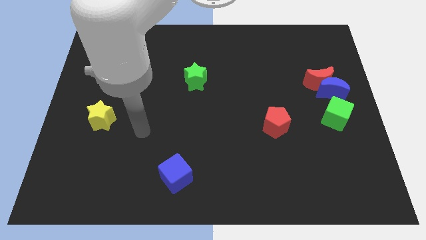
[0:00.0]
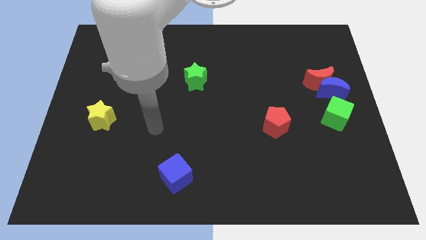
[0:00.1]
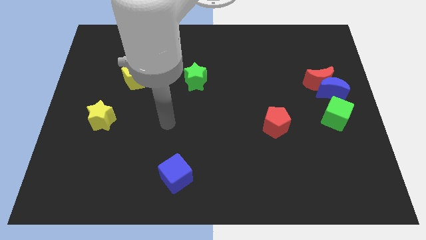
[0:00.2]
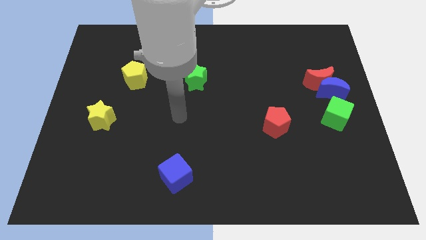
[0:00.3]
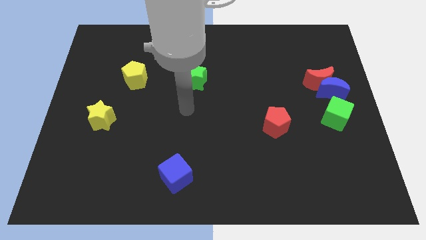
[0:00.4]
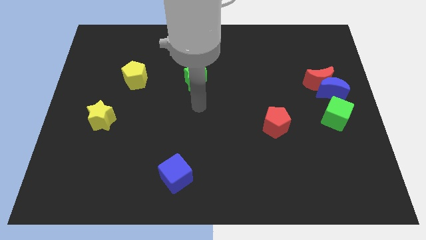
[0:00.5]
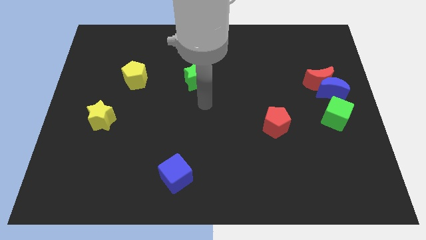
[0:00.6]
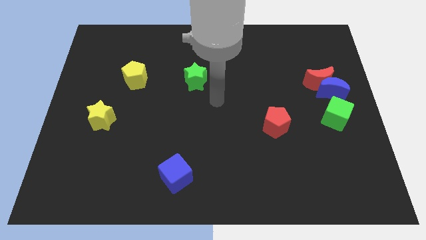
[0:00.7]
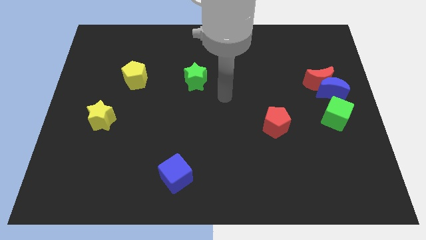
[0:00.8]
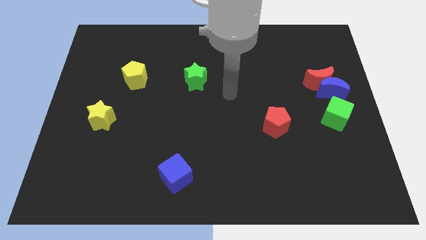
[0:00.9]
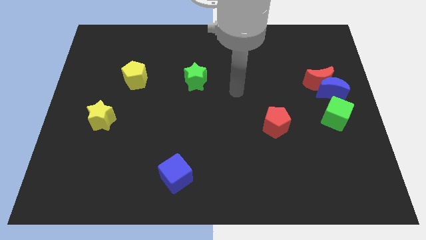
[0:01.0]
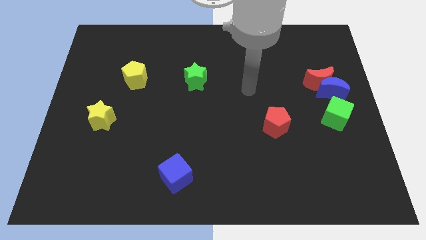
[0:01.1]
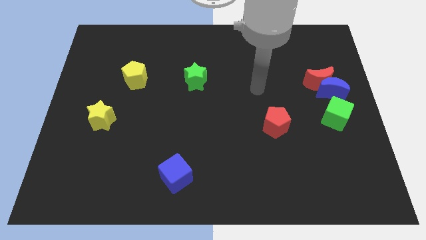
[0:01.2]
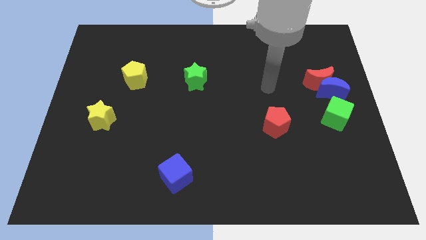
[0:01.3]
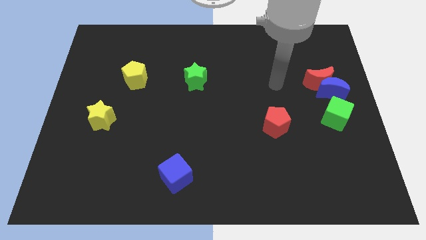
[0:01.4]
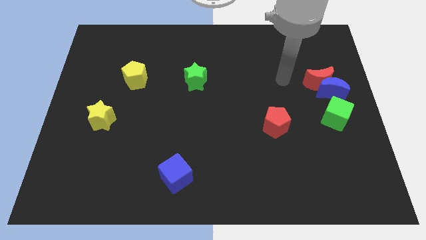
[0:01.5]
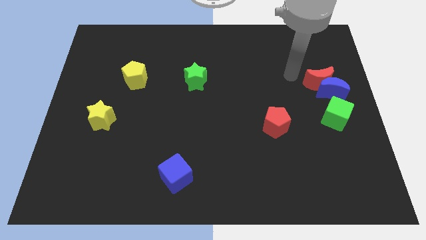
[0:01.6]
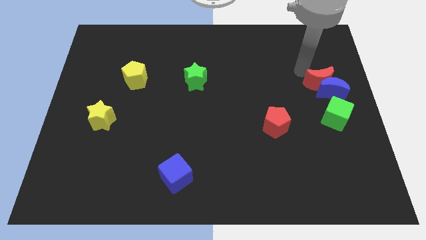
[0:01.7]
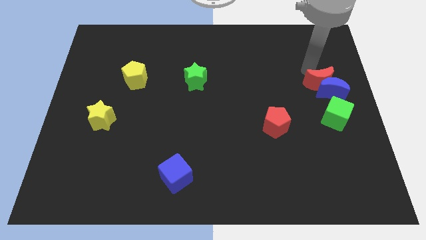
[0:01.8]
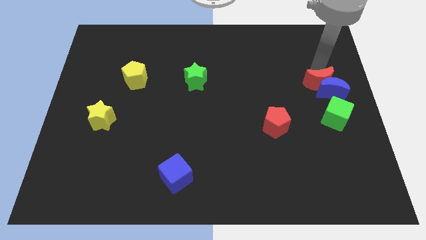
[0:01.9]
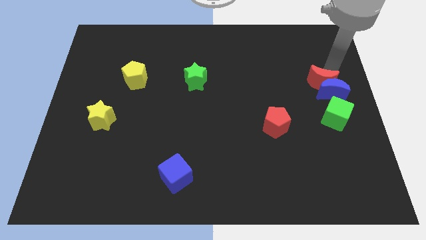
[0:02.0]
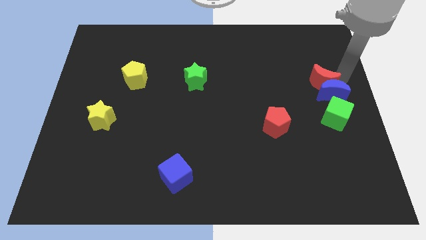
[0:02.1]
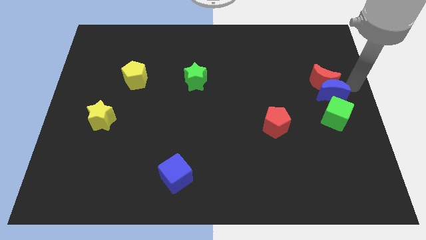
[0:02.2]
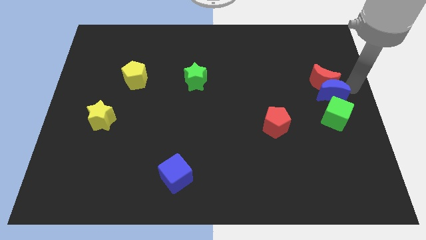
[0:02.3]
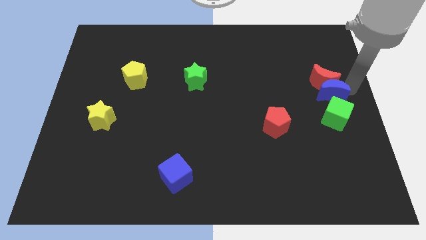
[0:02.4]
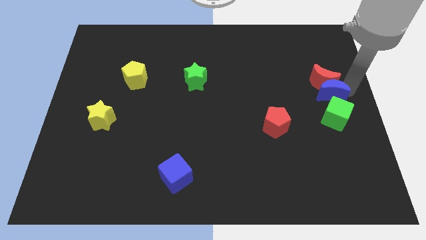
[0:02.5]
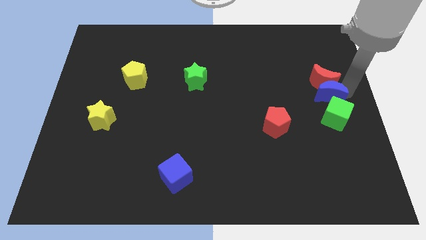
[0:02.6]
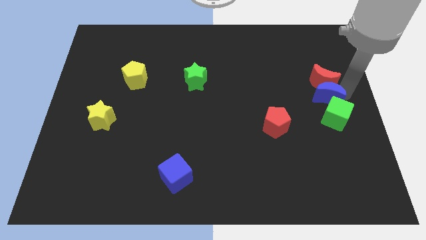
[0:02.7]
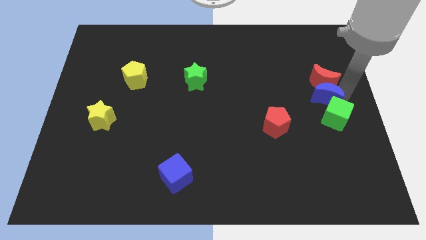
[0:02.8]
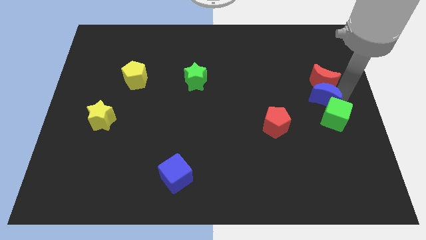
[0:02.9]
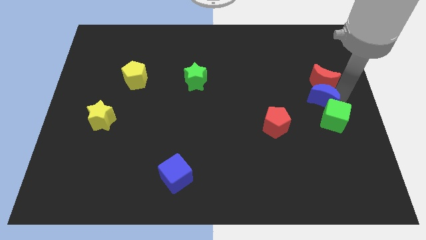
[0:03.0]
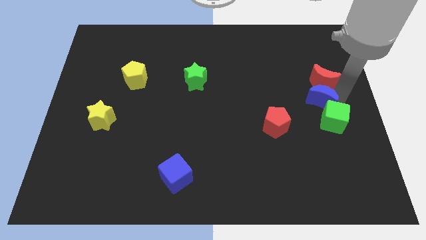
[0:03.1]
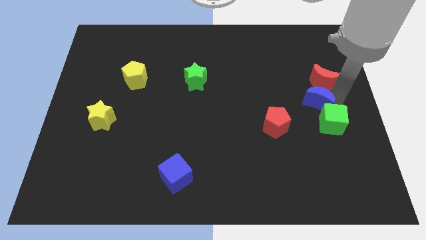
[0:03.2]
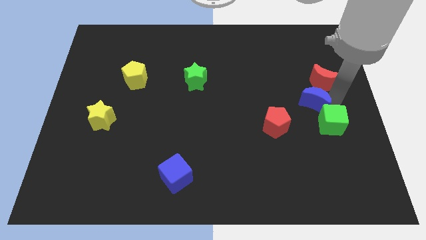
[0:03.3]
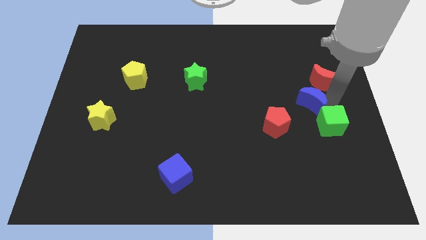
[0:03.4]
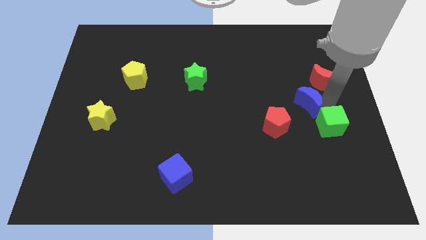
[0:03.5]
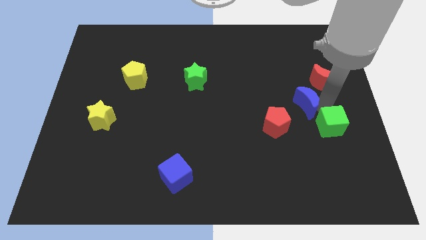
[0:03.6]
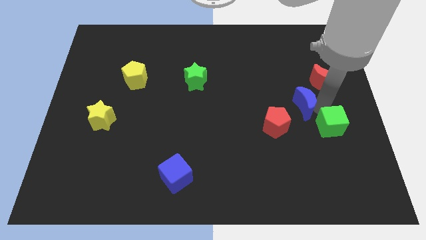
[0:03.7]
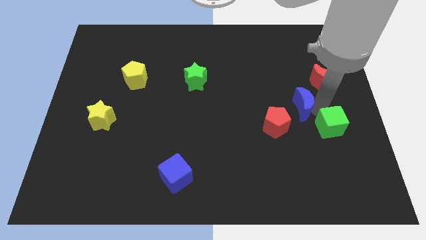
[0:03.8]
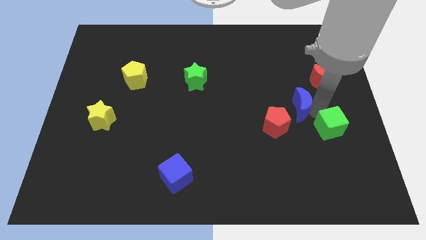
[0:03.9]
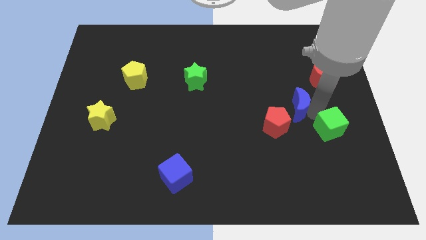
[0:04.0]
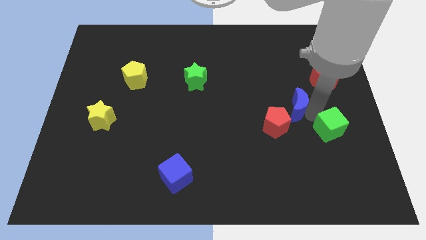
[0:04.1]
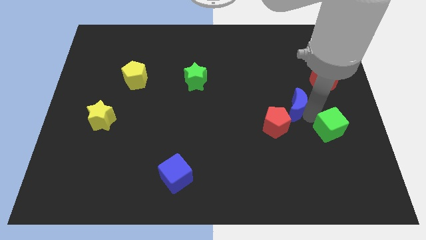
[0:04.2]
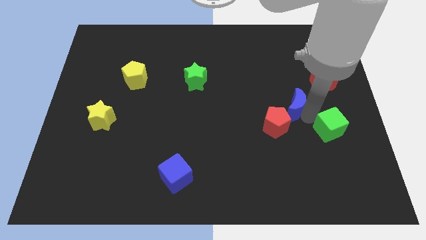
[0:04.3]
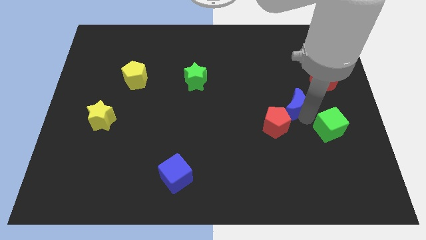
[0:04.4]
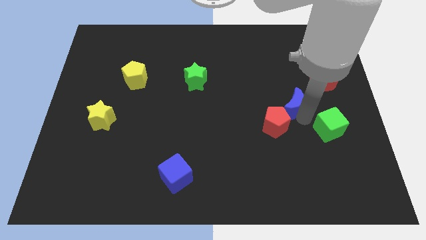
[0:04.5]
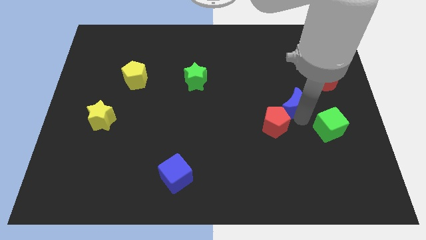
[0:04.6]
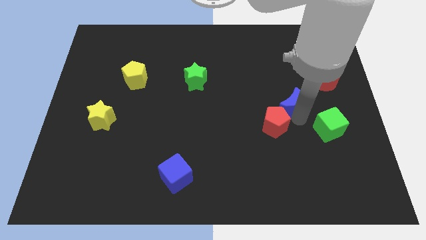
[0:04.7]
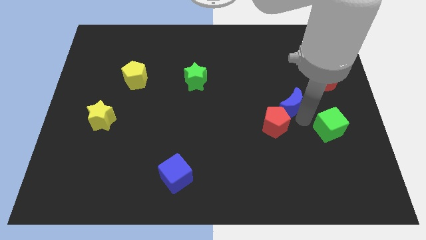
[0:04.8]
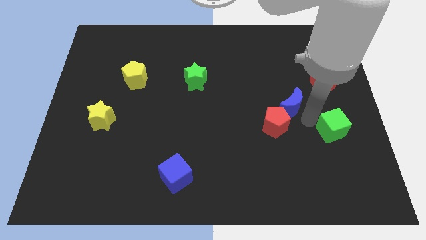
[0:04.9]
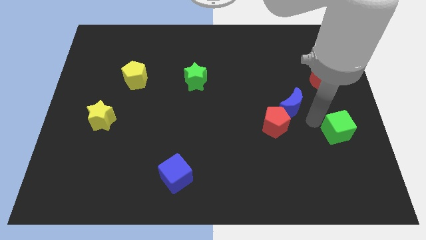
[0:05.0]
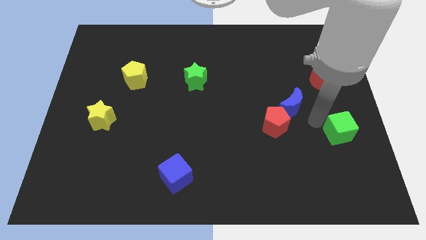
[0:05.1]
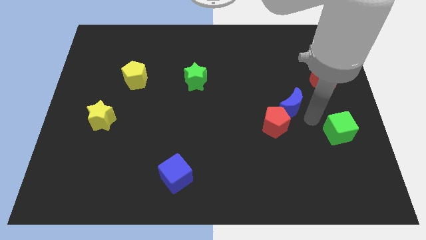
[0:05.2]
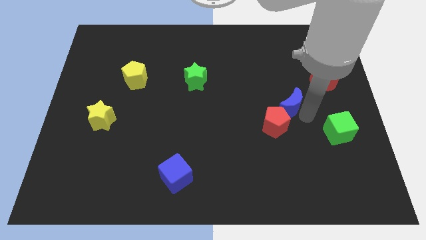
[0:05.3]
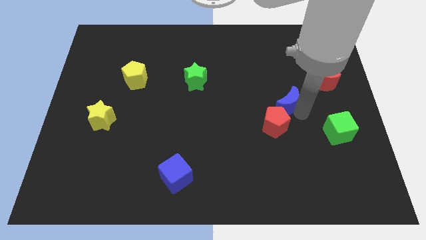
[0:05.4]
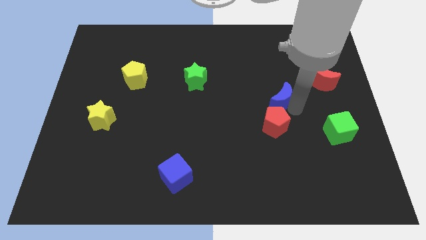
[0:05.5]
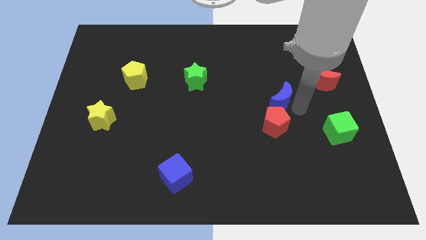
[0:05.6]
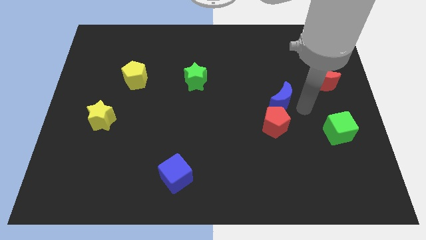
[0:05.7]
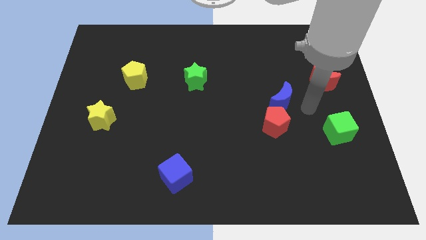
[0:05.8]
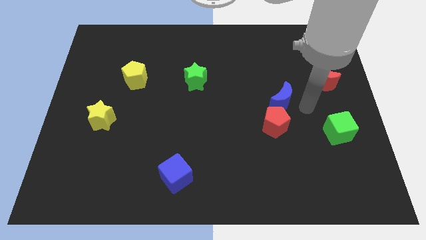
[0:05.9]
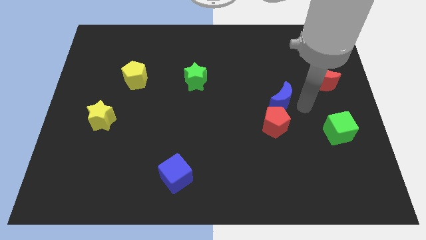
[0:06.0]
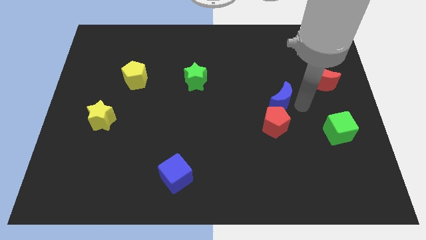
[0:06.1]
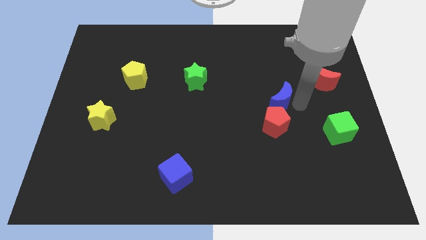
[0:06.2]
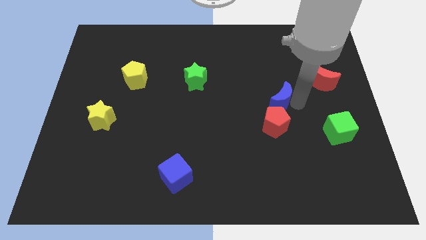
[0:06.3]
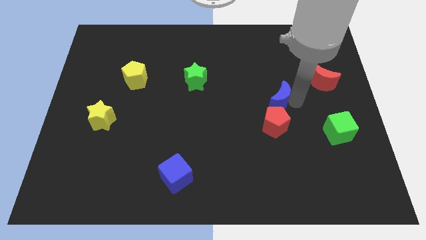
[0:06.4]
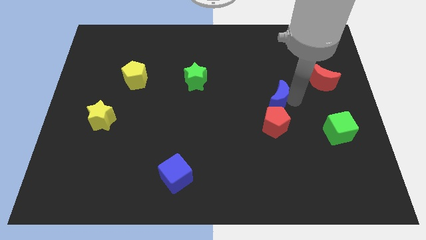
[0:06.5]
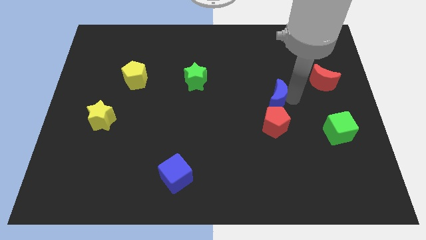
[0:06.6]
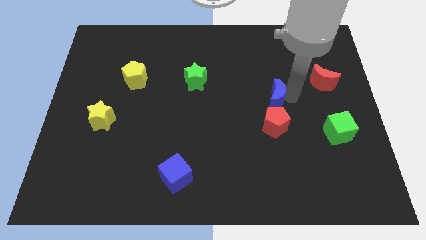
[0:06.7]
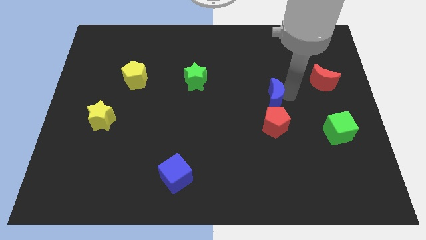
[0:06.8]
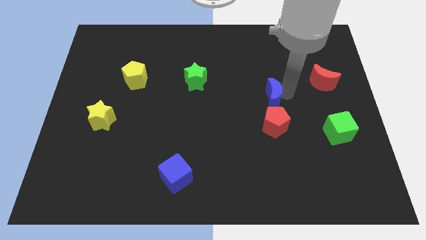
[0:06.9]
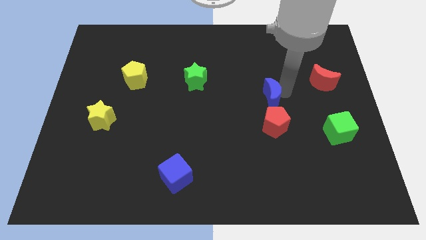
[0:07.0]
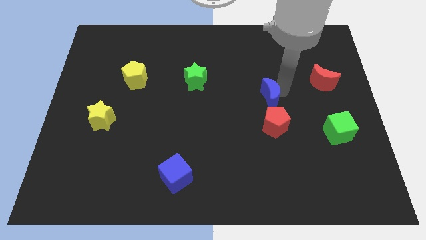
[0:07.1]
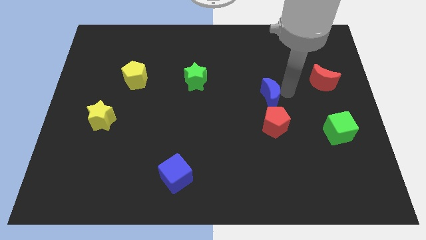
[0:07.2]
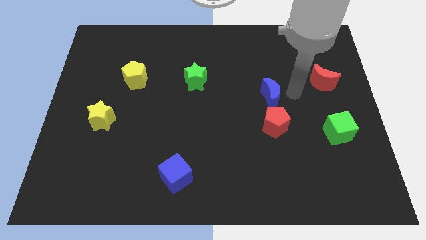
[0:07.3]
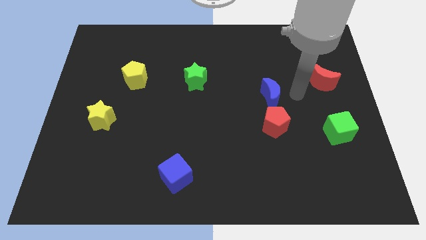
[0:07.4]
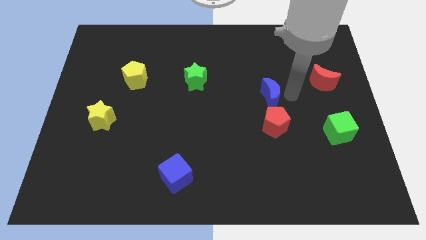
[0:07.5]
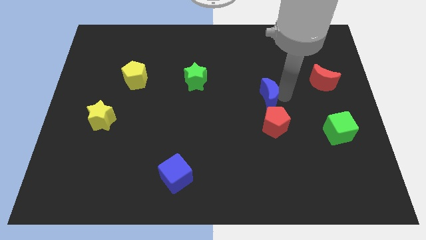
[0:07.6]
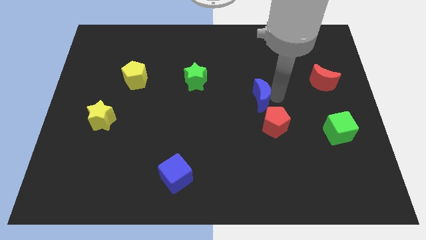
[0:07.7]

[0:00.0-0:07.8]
push the blue moon to the center
